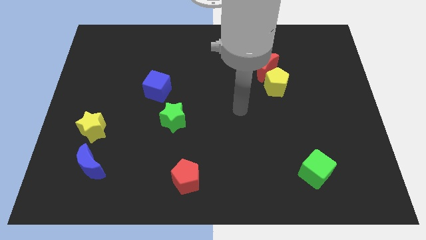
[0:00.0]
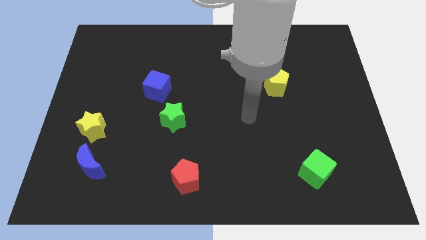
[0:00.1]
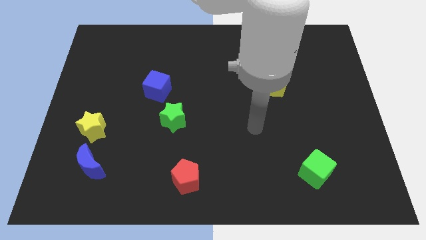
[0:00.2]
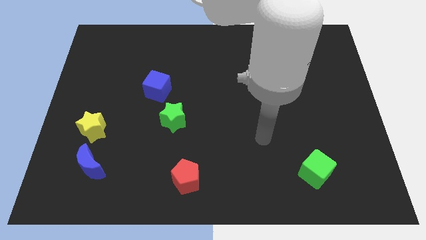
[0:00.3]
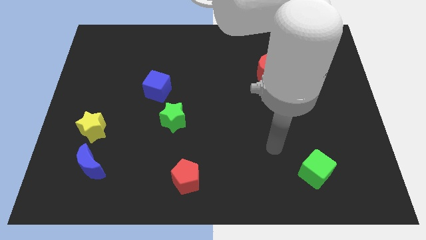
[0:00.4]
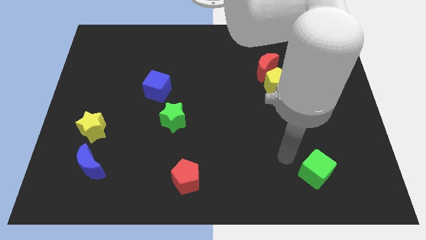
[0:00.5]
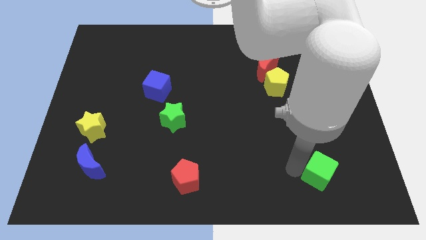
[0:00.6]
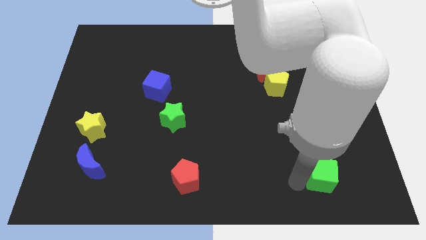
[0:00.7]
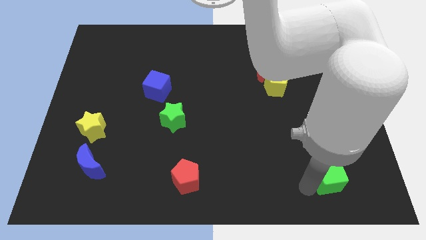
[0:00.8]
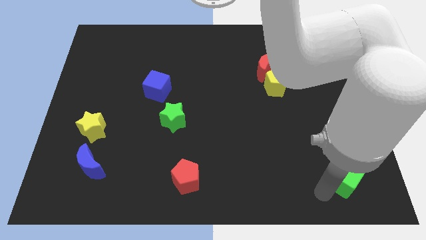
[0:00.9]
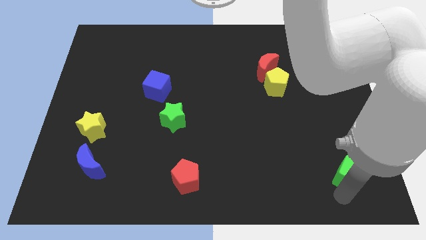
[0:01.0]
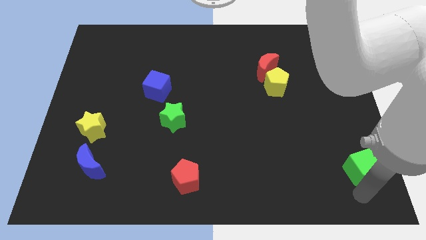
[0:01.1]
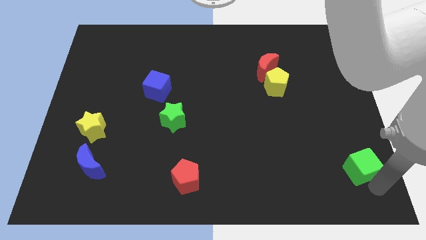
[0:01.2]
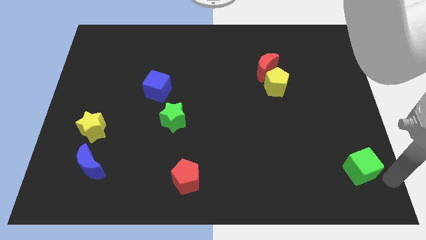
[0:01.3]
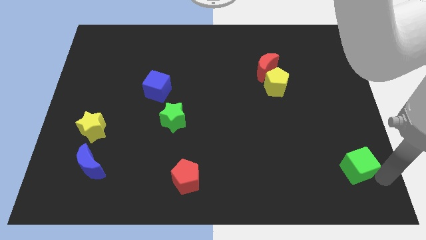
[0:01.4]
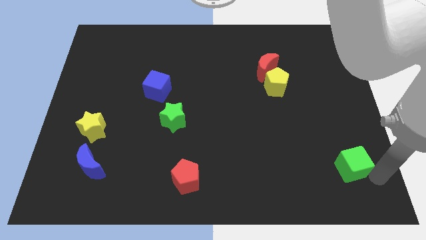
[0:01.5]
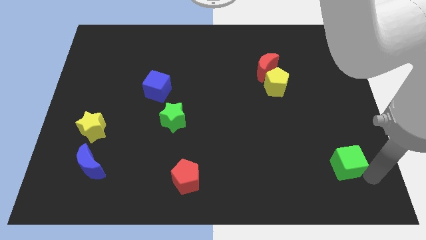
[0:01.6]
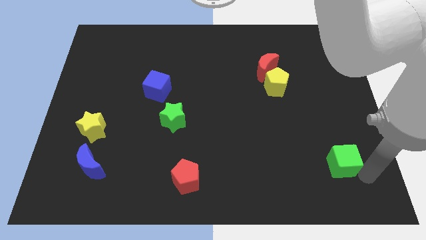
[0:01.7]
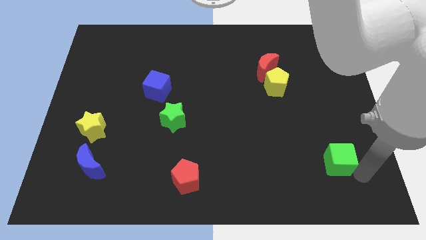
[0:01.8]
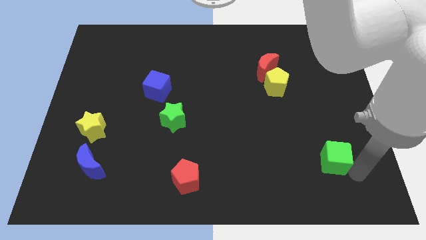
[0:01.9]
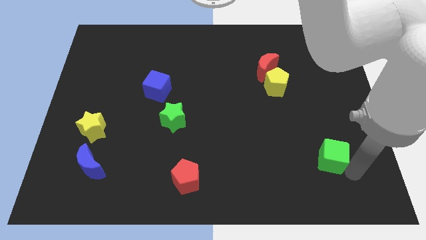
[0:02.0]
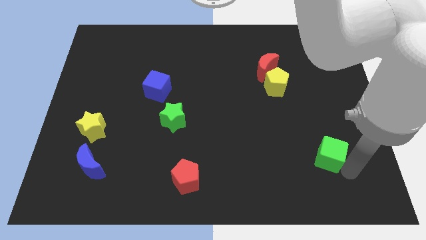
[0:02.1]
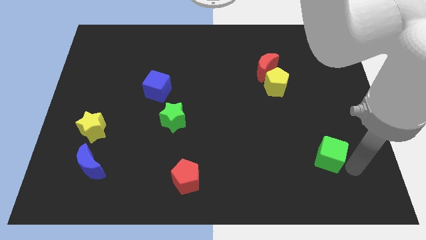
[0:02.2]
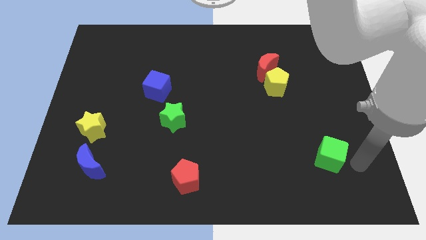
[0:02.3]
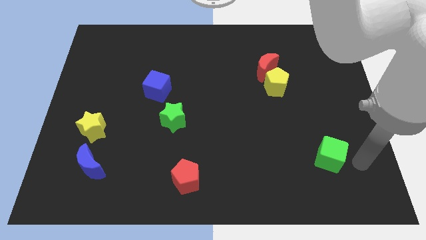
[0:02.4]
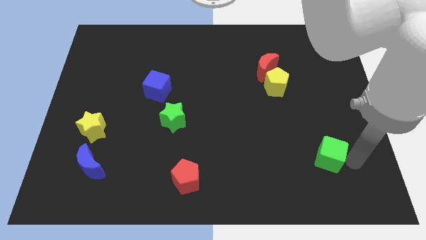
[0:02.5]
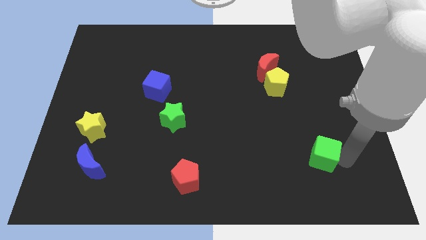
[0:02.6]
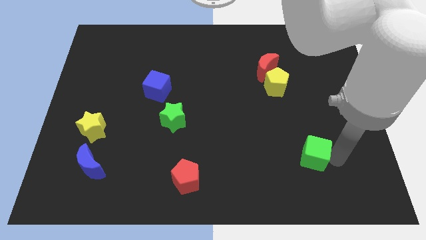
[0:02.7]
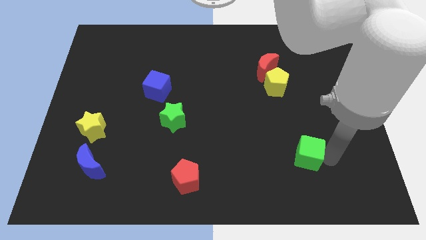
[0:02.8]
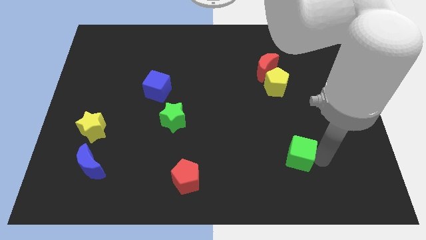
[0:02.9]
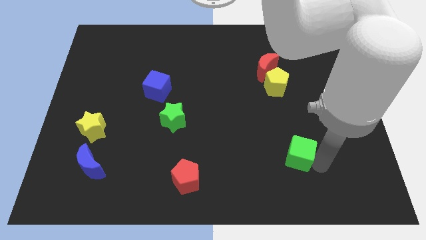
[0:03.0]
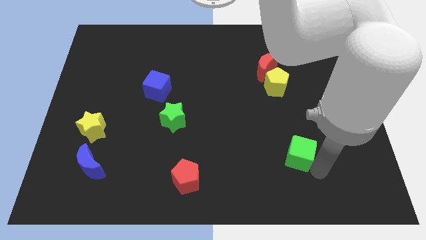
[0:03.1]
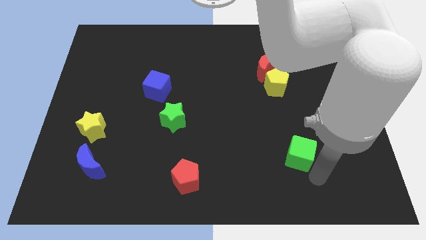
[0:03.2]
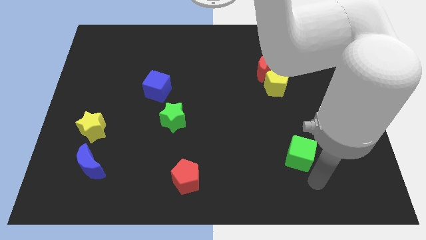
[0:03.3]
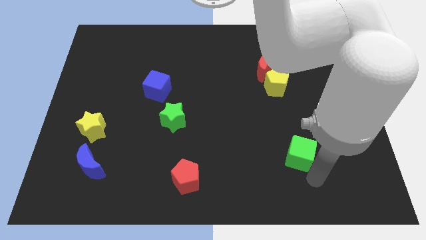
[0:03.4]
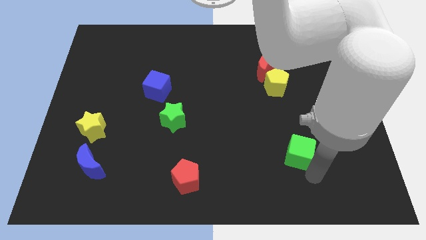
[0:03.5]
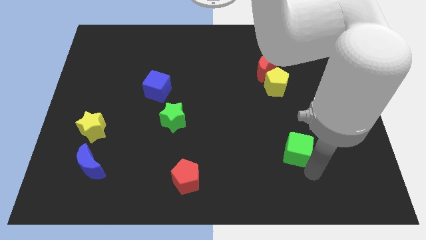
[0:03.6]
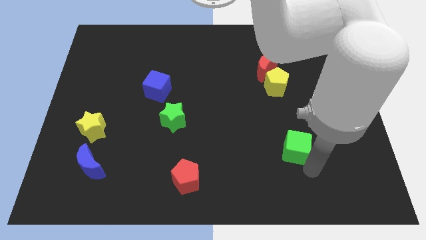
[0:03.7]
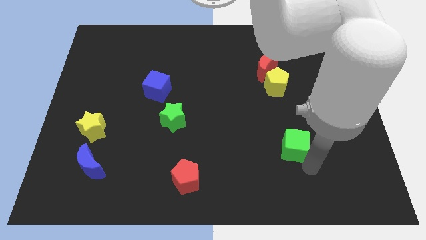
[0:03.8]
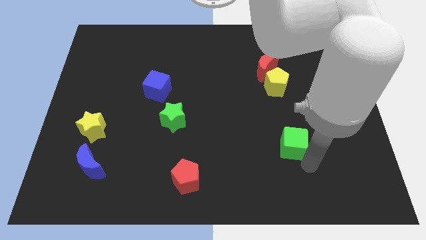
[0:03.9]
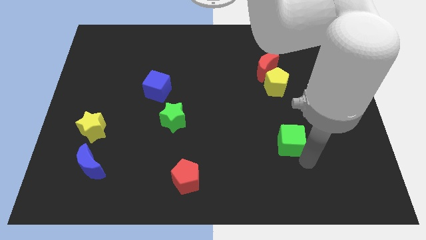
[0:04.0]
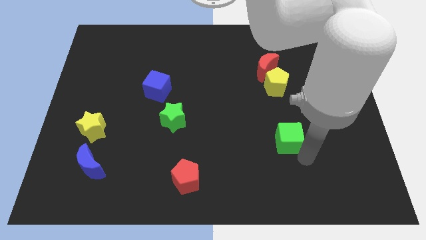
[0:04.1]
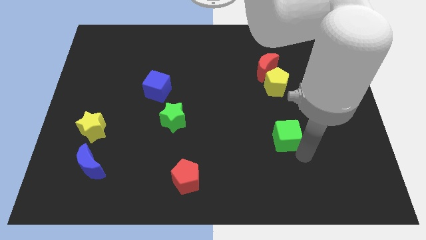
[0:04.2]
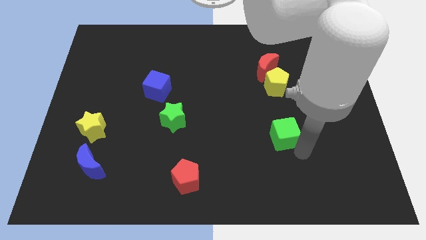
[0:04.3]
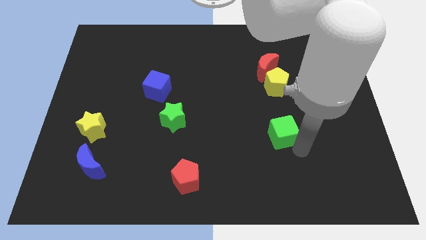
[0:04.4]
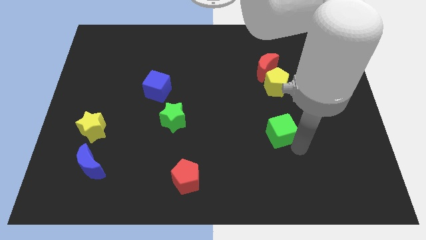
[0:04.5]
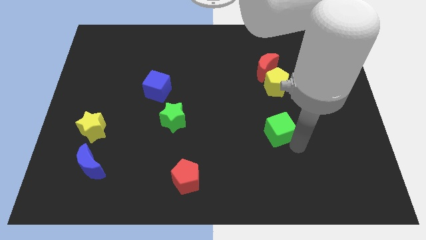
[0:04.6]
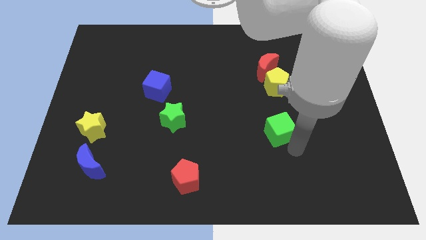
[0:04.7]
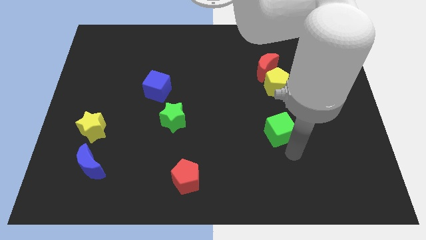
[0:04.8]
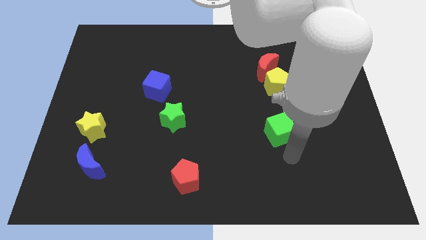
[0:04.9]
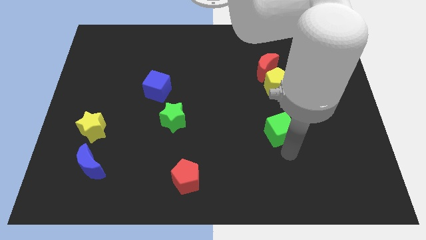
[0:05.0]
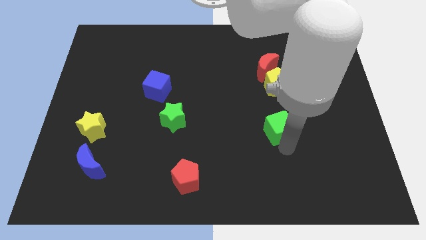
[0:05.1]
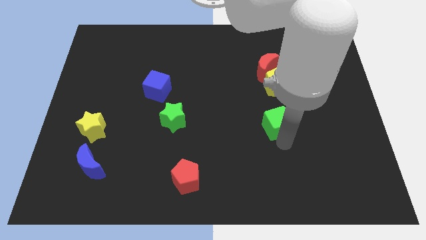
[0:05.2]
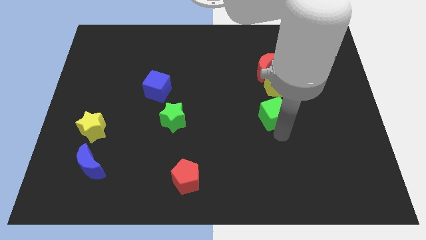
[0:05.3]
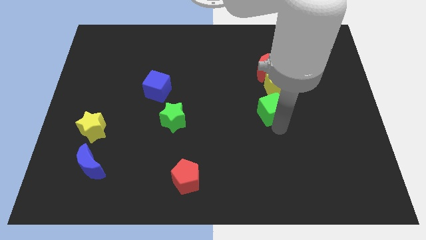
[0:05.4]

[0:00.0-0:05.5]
put the green cube to the bottom left of the yellow pentagon
